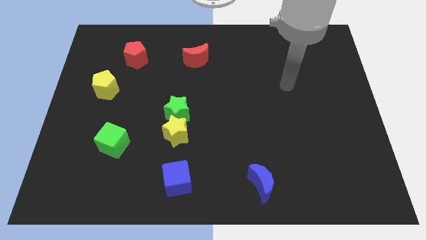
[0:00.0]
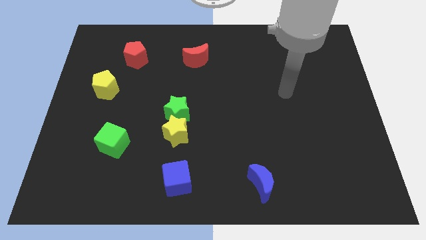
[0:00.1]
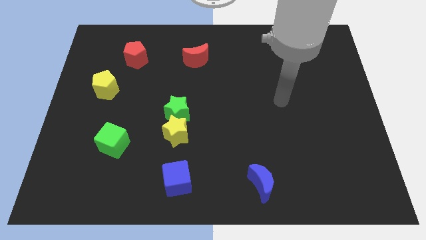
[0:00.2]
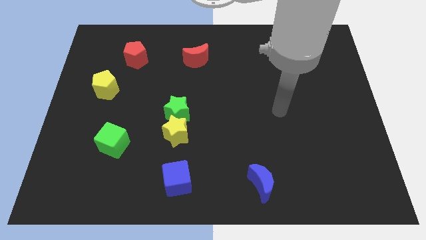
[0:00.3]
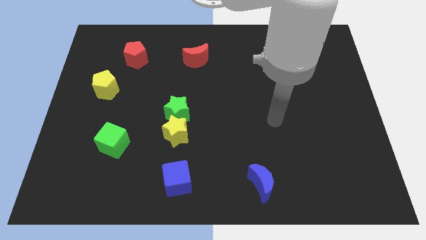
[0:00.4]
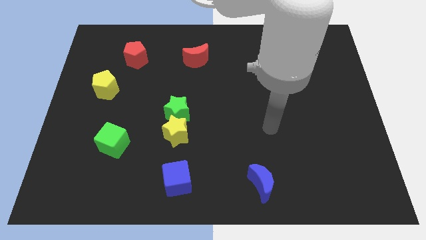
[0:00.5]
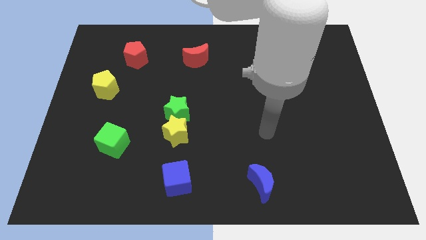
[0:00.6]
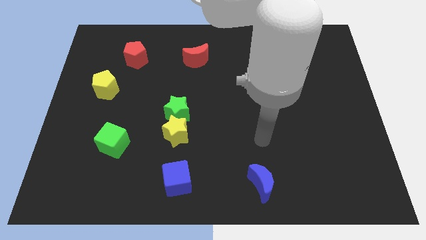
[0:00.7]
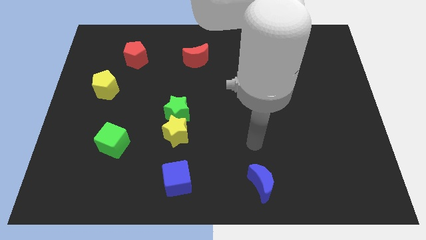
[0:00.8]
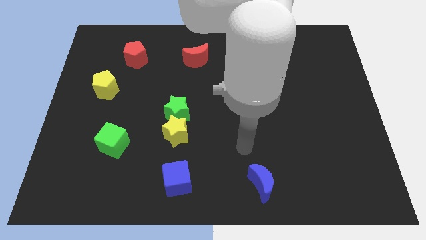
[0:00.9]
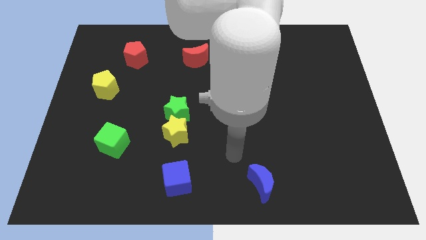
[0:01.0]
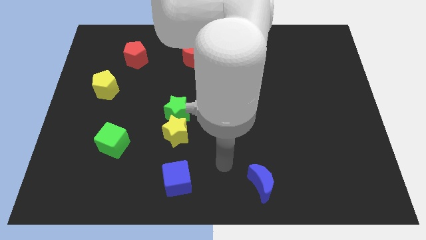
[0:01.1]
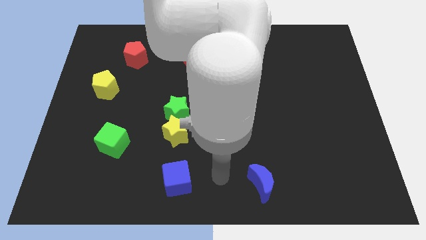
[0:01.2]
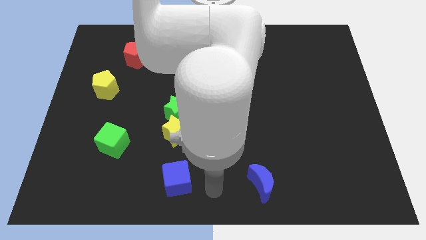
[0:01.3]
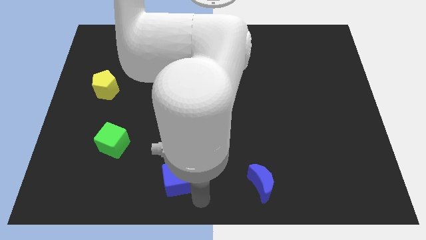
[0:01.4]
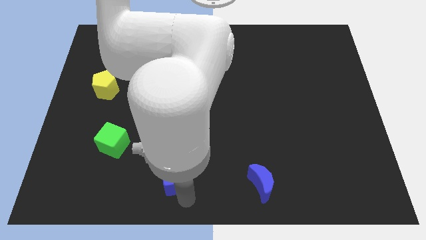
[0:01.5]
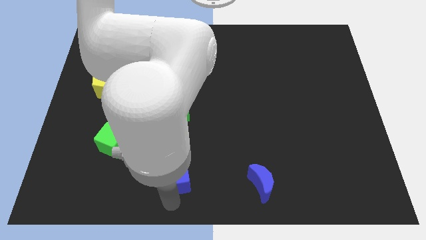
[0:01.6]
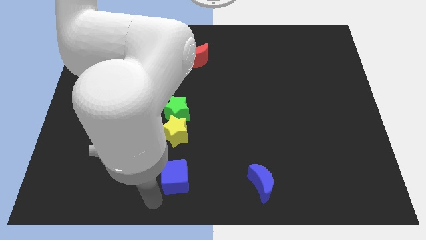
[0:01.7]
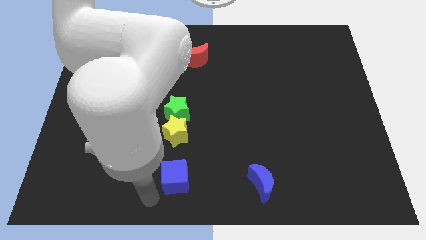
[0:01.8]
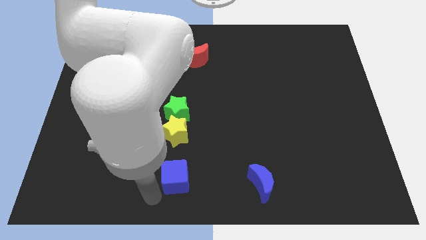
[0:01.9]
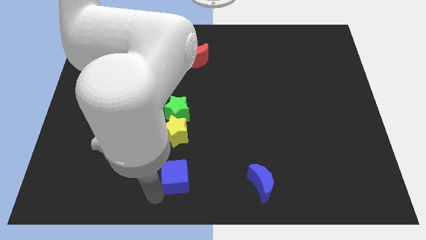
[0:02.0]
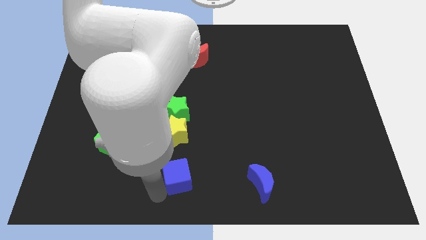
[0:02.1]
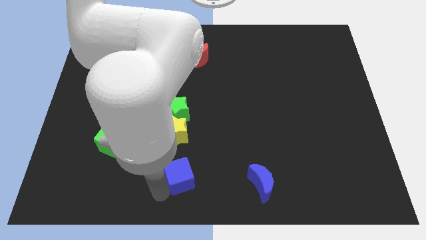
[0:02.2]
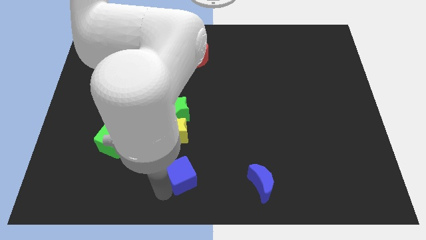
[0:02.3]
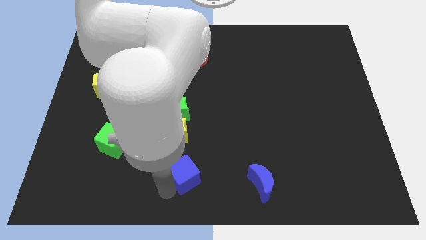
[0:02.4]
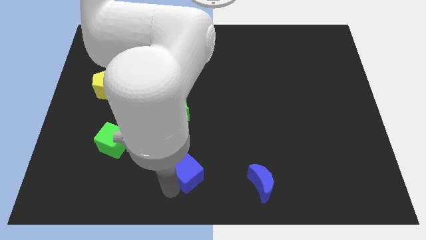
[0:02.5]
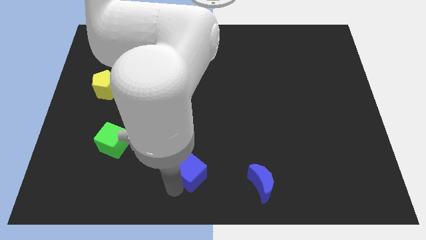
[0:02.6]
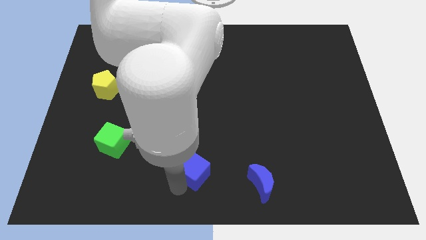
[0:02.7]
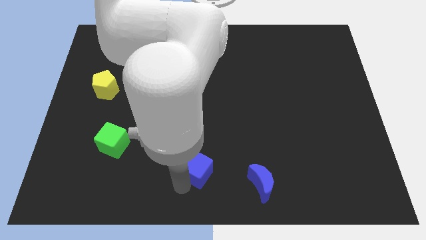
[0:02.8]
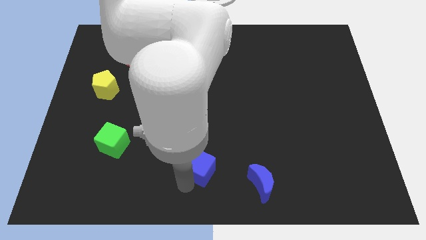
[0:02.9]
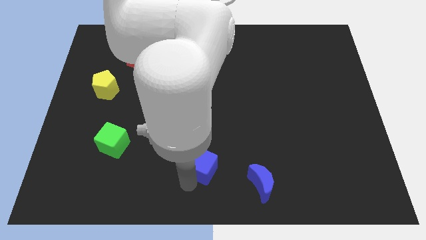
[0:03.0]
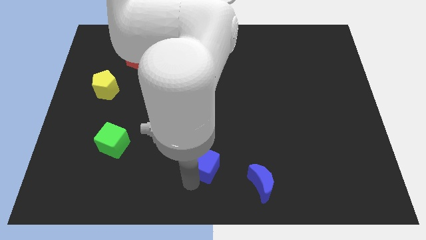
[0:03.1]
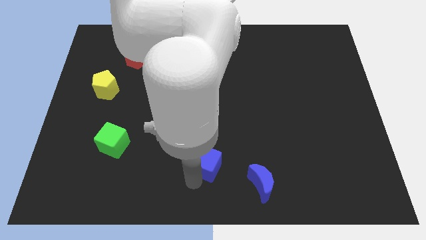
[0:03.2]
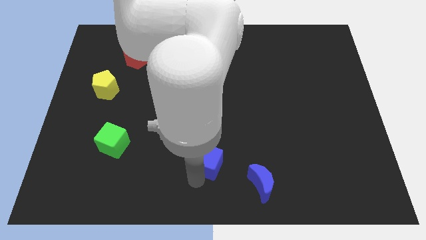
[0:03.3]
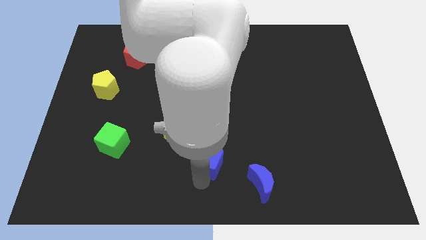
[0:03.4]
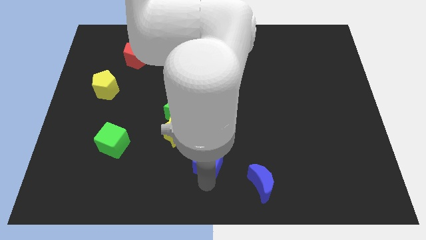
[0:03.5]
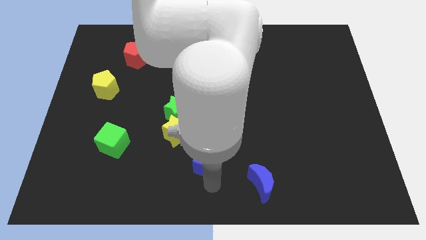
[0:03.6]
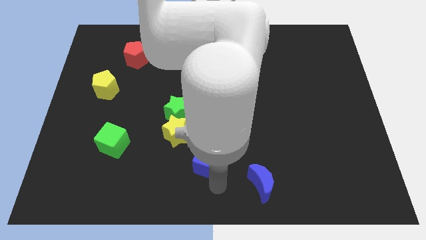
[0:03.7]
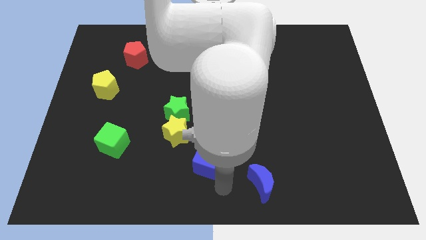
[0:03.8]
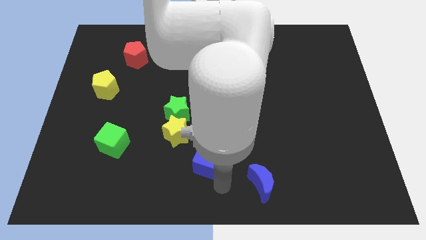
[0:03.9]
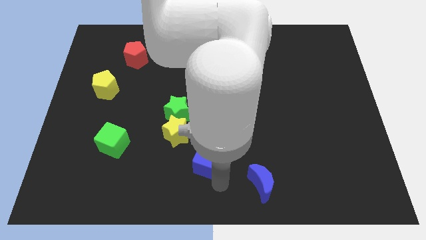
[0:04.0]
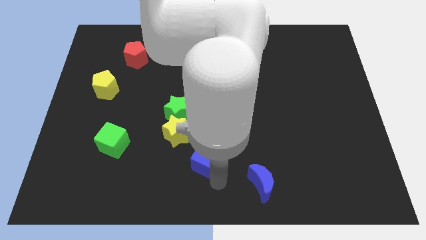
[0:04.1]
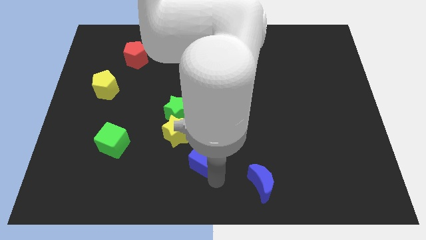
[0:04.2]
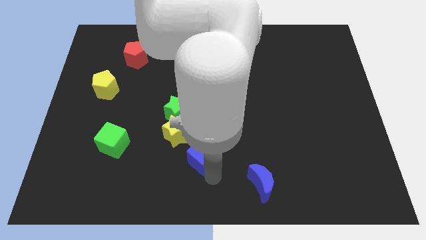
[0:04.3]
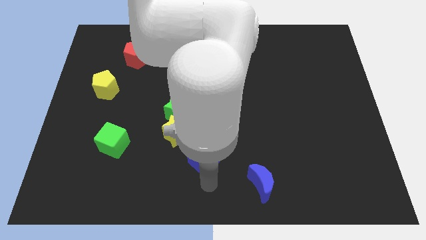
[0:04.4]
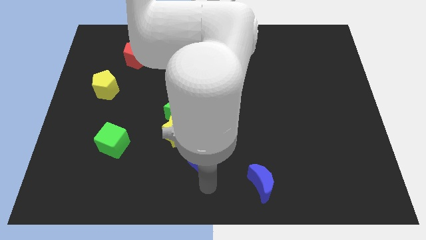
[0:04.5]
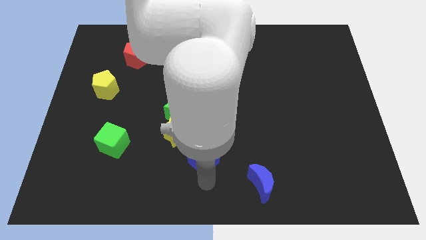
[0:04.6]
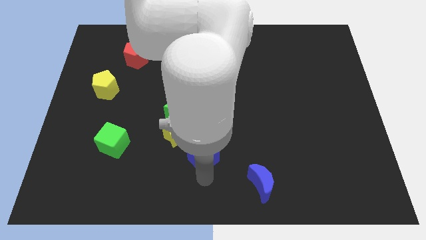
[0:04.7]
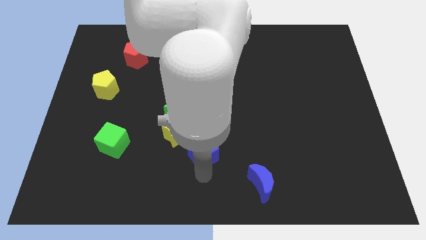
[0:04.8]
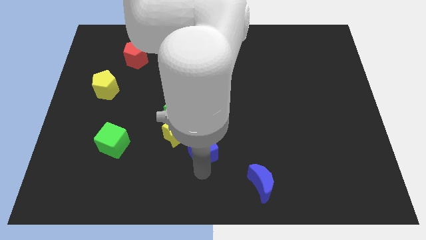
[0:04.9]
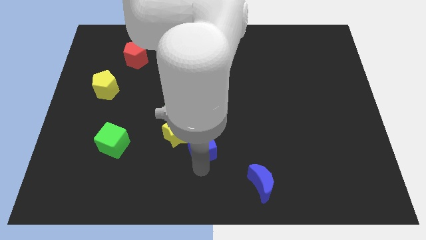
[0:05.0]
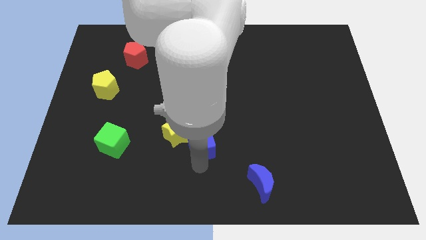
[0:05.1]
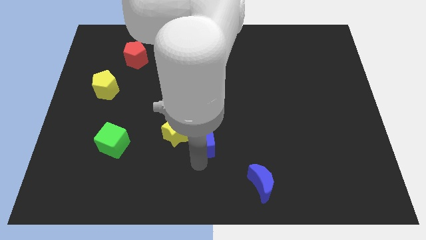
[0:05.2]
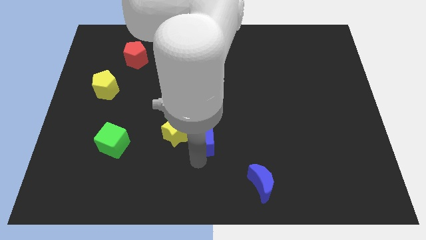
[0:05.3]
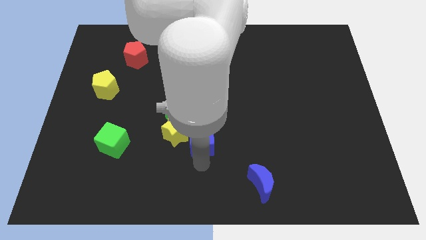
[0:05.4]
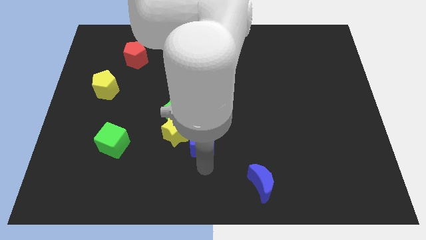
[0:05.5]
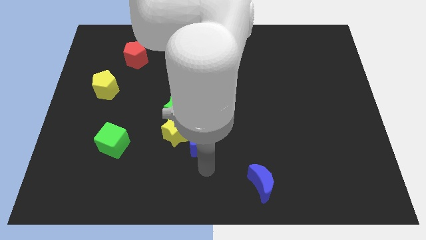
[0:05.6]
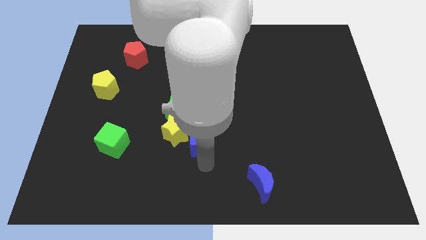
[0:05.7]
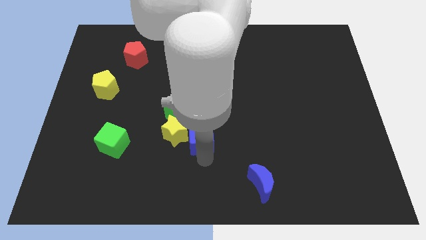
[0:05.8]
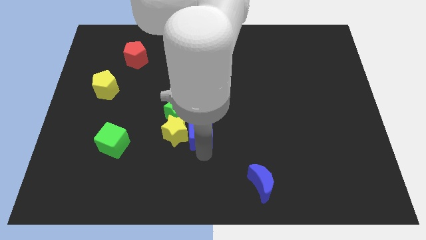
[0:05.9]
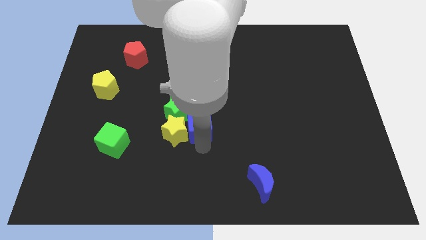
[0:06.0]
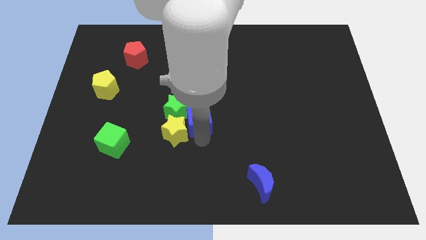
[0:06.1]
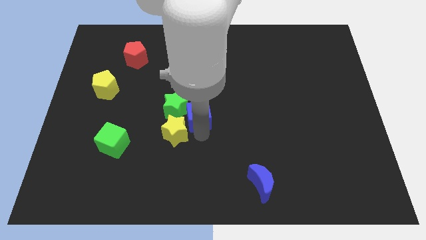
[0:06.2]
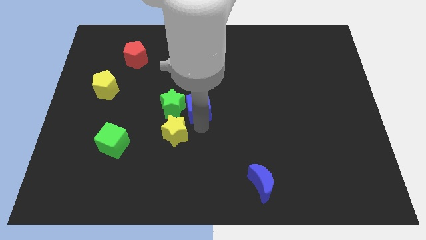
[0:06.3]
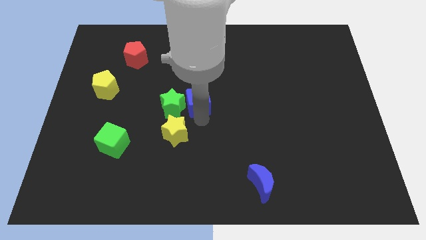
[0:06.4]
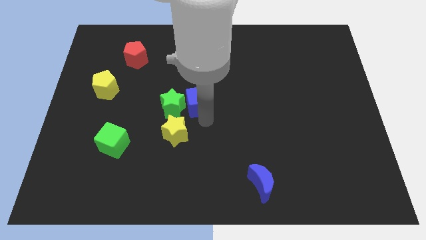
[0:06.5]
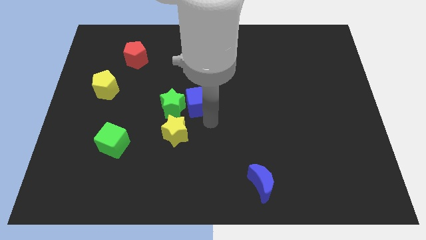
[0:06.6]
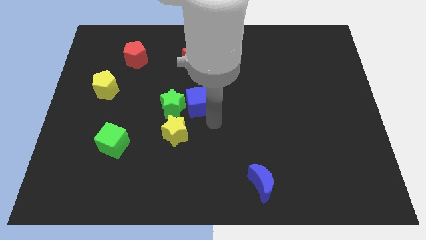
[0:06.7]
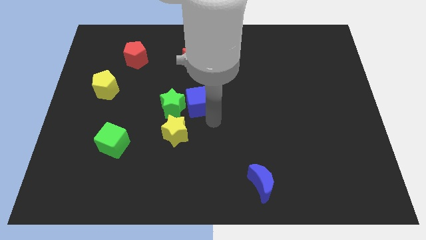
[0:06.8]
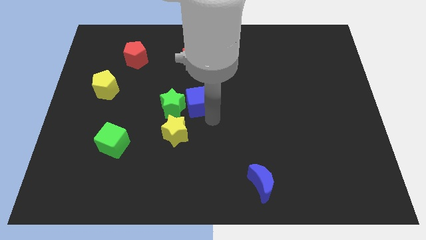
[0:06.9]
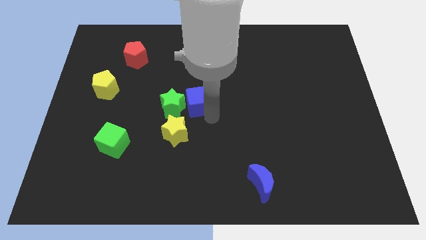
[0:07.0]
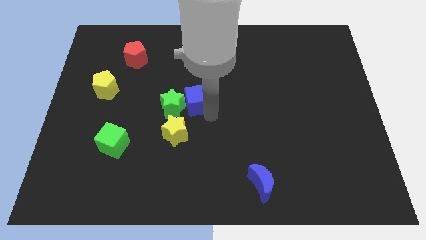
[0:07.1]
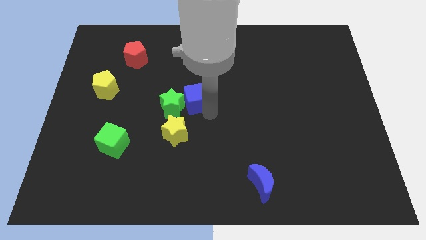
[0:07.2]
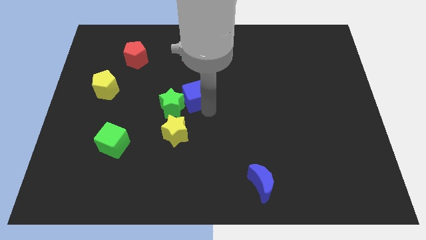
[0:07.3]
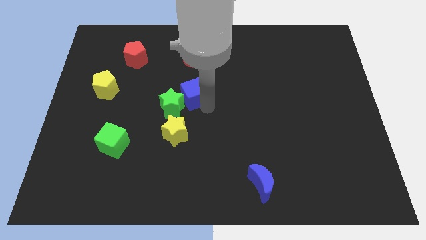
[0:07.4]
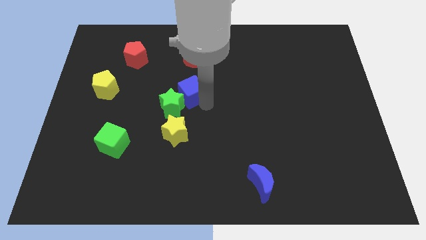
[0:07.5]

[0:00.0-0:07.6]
put the blue cube to the top of the green star

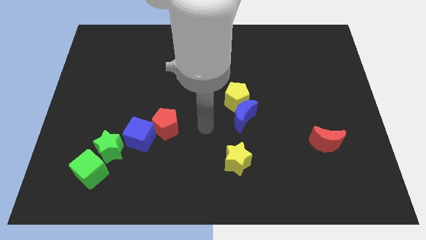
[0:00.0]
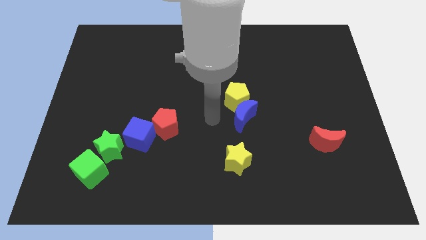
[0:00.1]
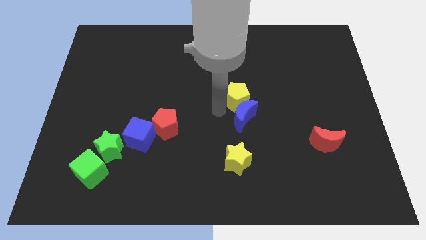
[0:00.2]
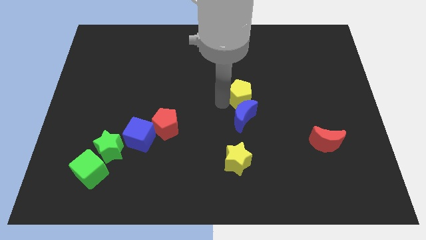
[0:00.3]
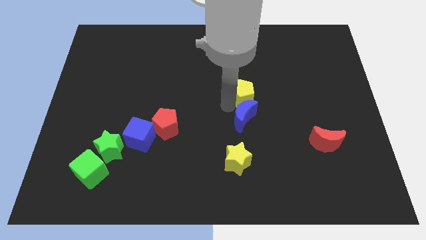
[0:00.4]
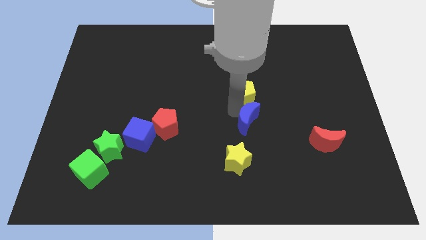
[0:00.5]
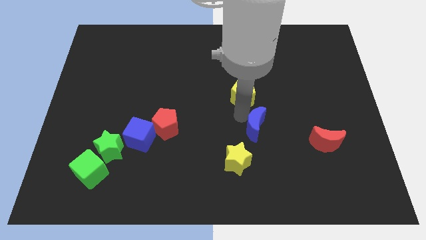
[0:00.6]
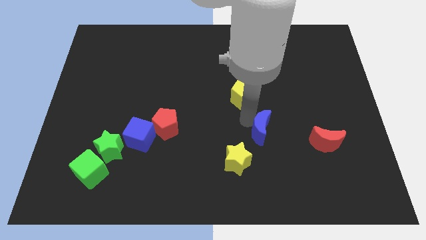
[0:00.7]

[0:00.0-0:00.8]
move the blue moon left of the red moon

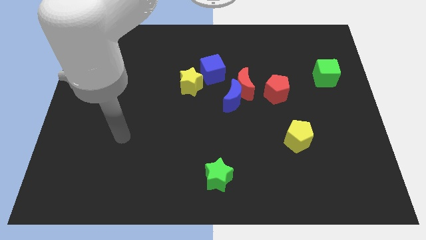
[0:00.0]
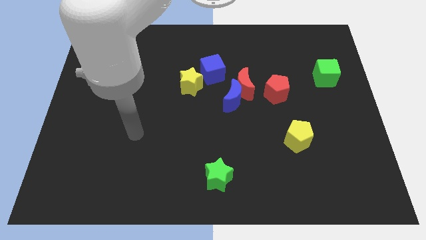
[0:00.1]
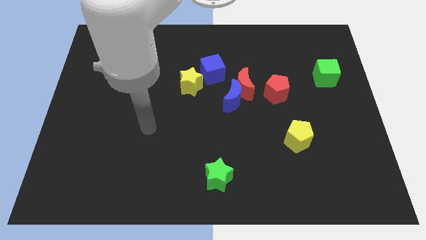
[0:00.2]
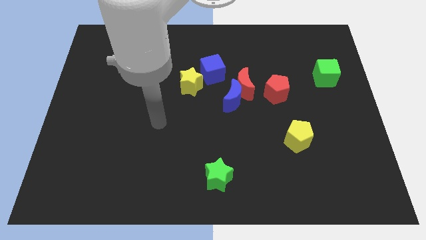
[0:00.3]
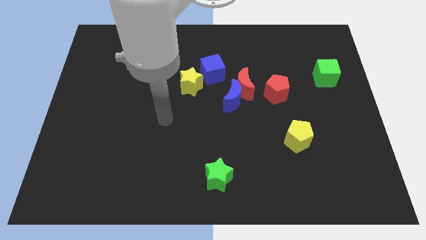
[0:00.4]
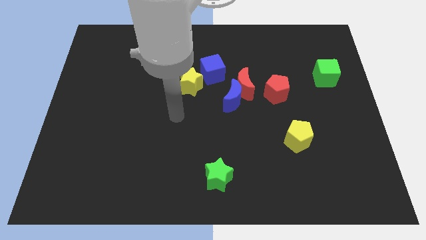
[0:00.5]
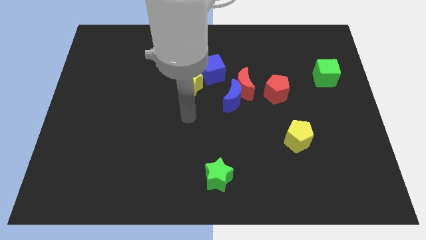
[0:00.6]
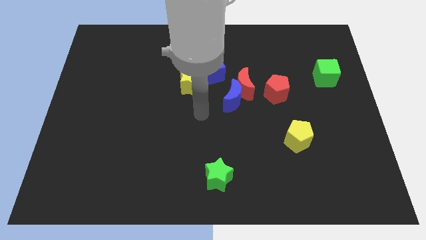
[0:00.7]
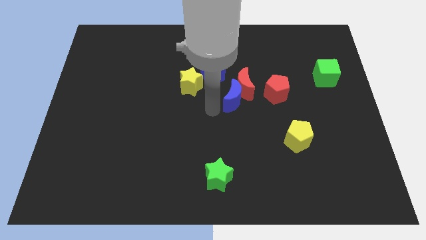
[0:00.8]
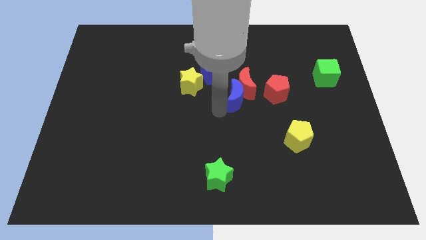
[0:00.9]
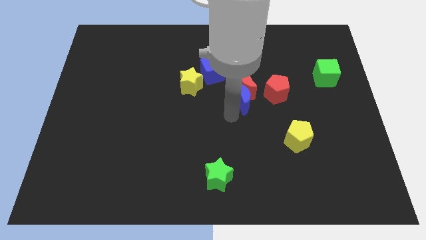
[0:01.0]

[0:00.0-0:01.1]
push the red pentagon diagonally up and to the right of the blue moon
